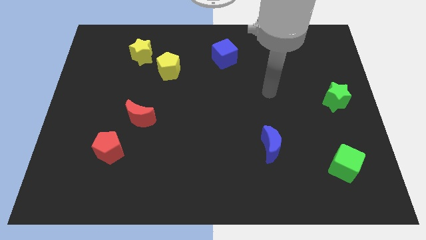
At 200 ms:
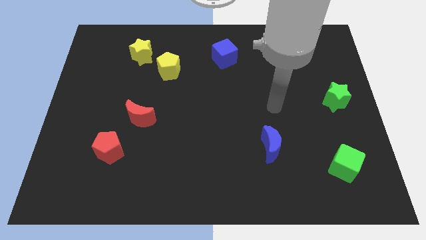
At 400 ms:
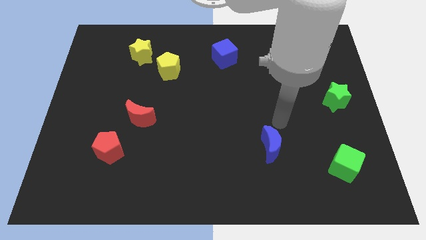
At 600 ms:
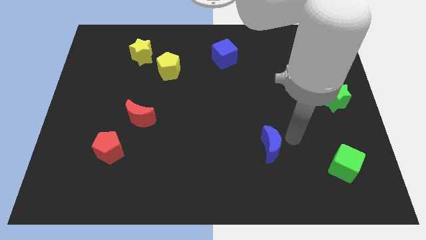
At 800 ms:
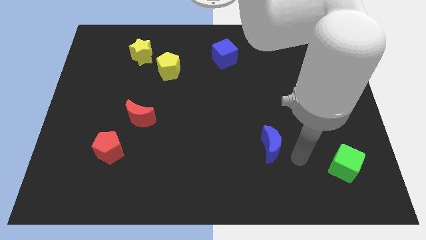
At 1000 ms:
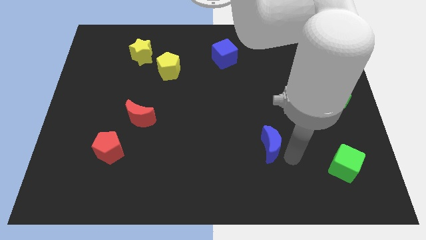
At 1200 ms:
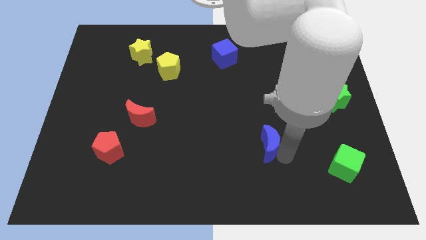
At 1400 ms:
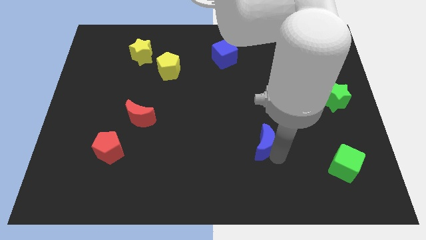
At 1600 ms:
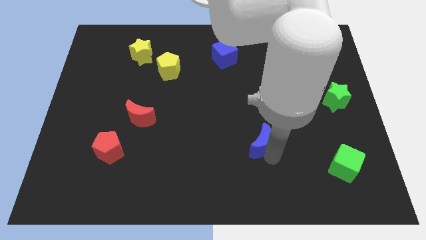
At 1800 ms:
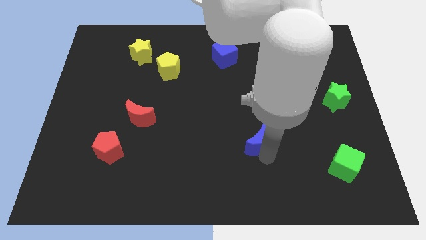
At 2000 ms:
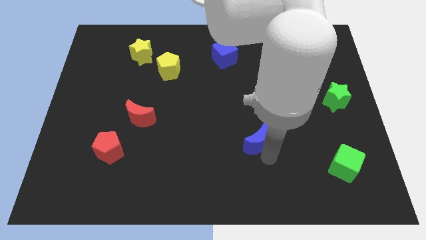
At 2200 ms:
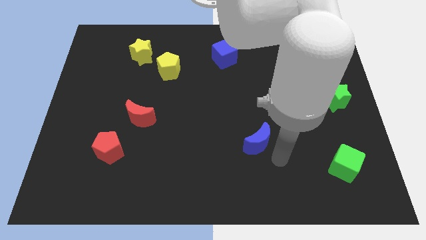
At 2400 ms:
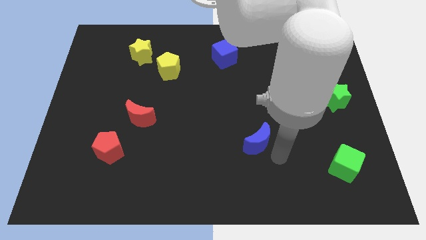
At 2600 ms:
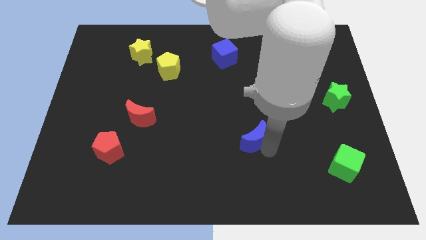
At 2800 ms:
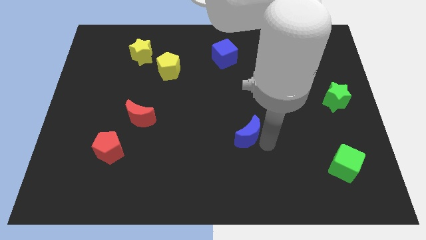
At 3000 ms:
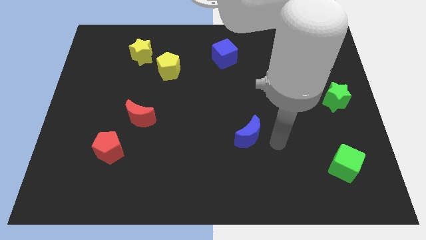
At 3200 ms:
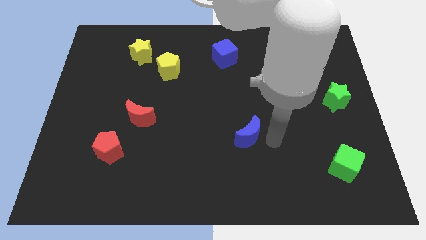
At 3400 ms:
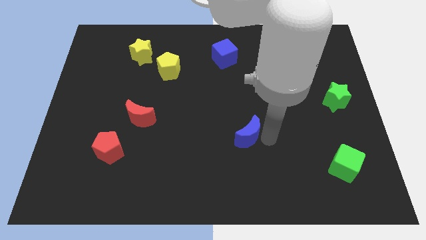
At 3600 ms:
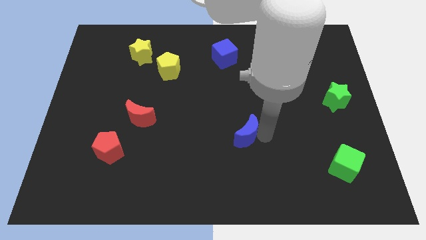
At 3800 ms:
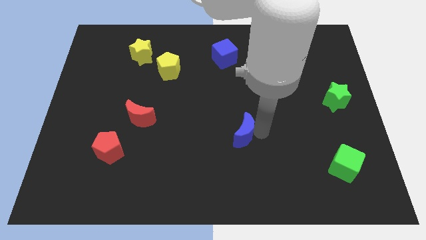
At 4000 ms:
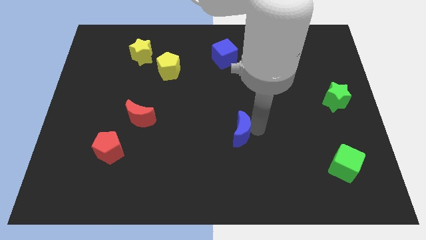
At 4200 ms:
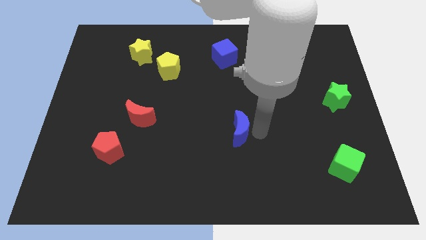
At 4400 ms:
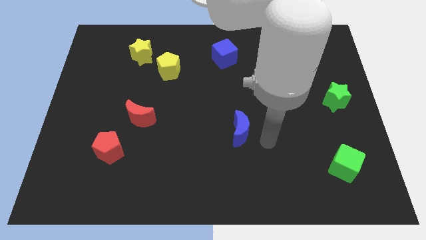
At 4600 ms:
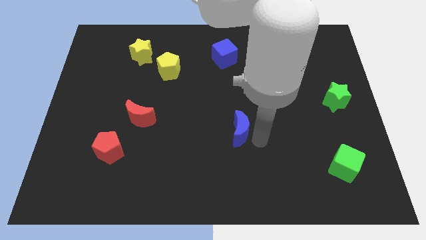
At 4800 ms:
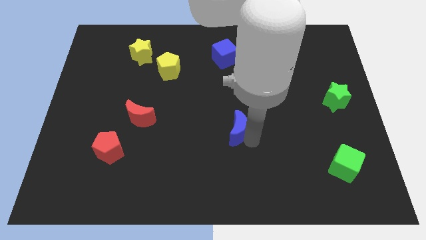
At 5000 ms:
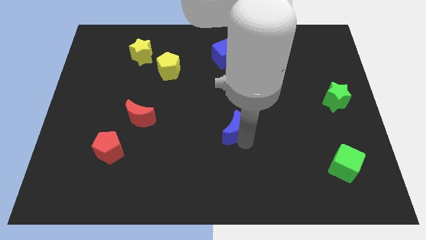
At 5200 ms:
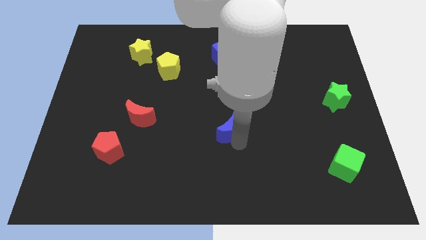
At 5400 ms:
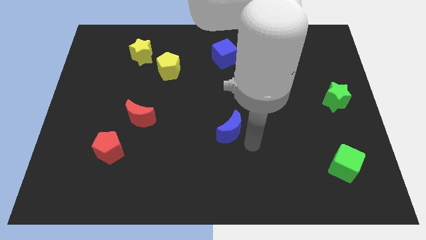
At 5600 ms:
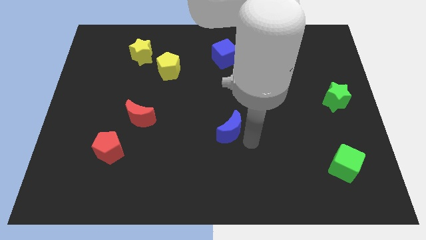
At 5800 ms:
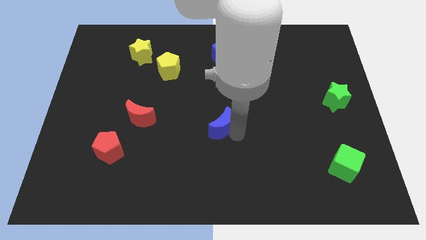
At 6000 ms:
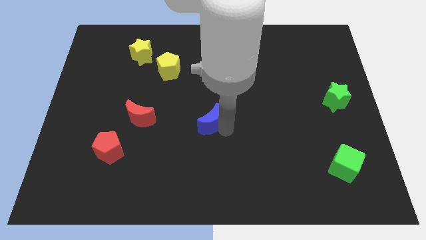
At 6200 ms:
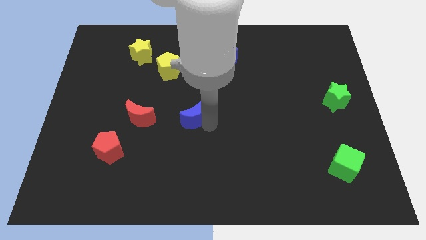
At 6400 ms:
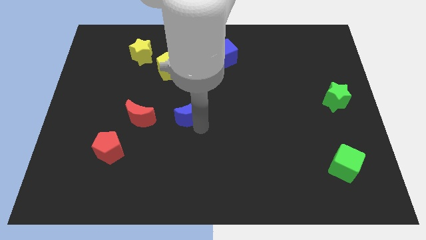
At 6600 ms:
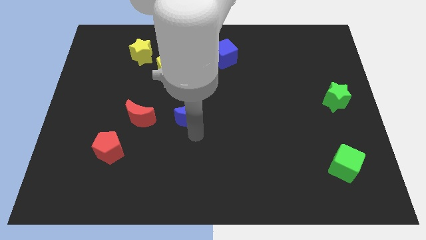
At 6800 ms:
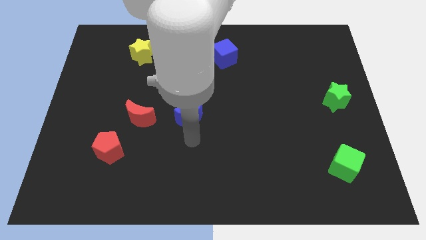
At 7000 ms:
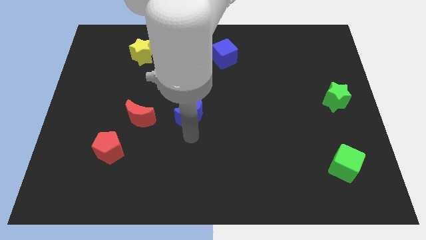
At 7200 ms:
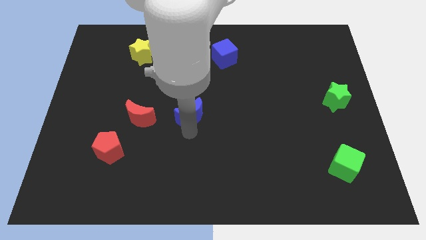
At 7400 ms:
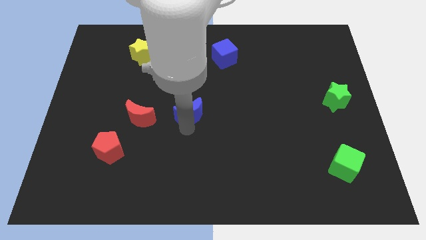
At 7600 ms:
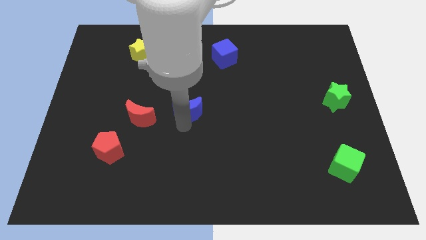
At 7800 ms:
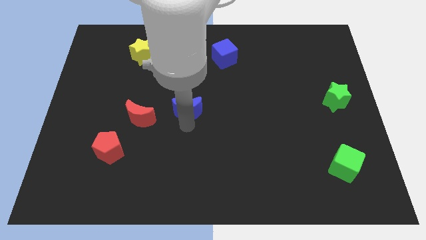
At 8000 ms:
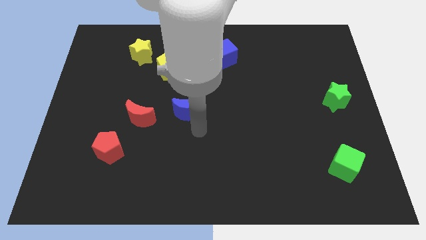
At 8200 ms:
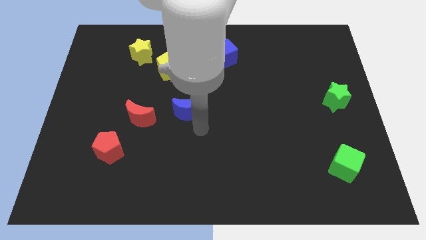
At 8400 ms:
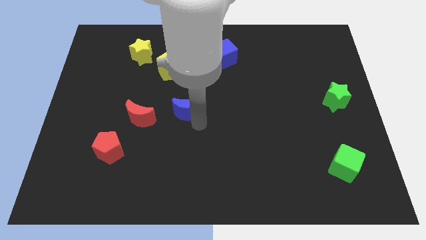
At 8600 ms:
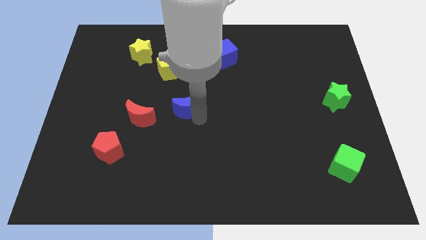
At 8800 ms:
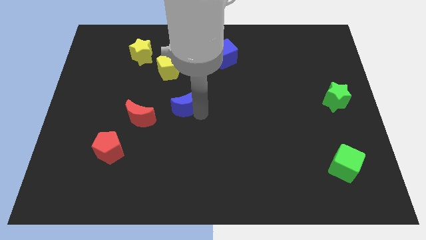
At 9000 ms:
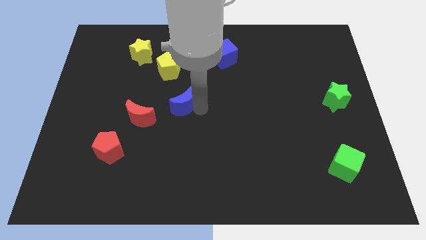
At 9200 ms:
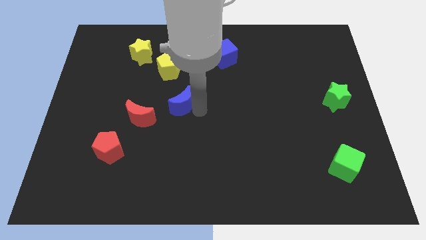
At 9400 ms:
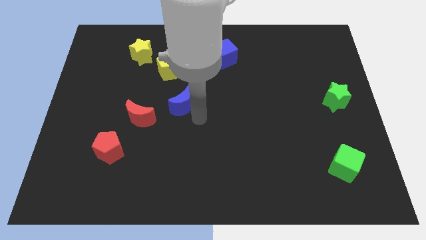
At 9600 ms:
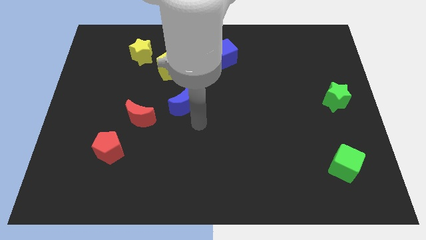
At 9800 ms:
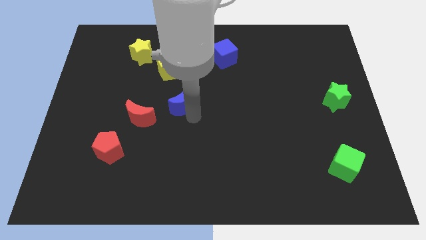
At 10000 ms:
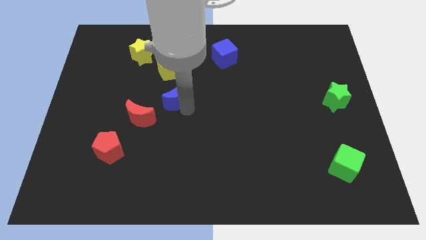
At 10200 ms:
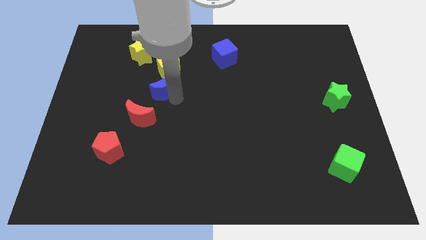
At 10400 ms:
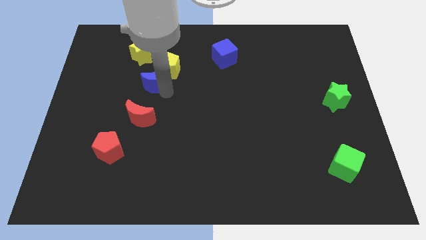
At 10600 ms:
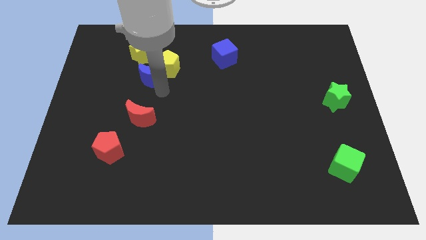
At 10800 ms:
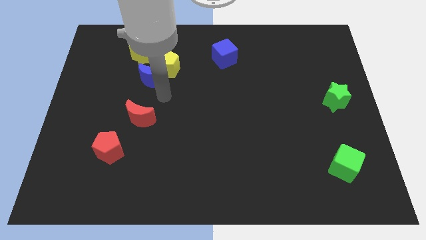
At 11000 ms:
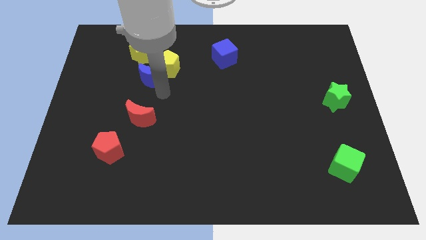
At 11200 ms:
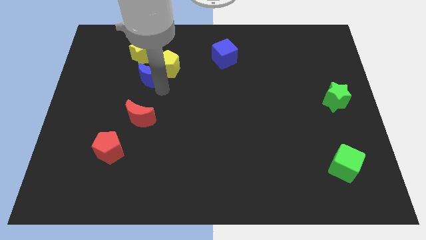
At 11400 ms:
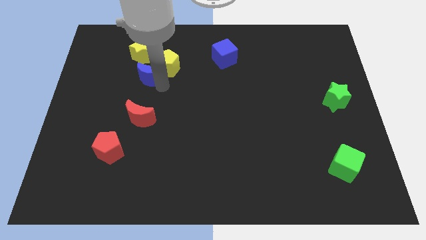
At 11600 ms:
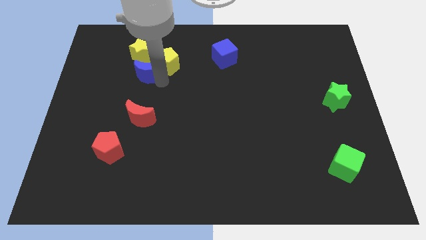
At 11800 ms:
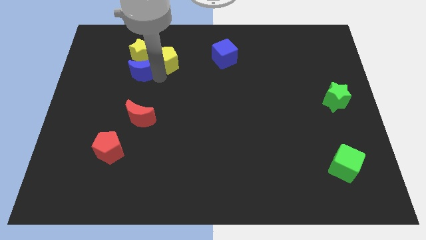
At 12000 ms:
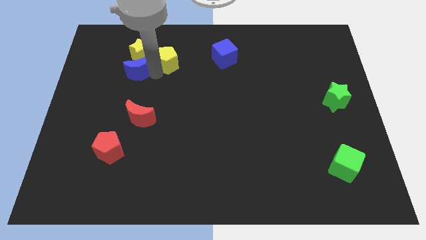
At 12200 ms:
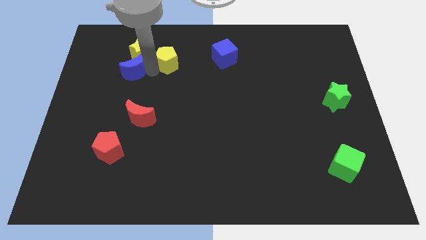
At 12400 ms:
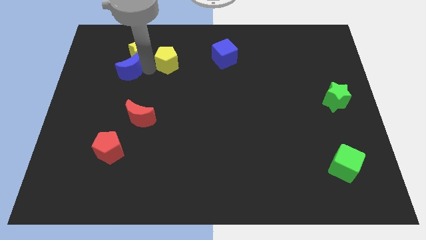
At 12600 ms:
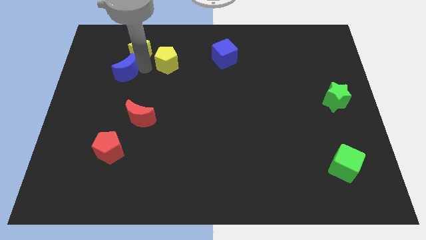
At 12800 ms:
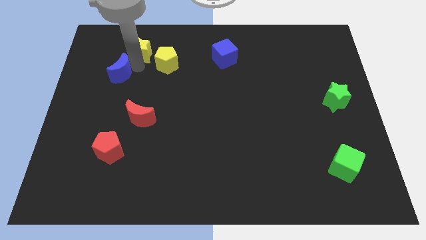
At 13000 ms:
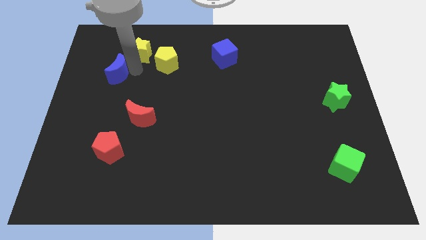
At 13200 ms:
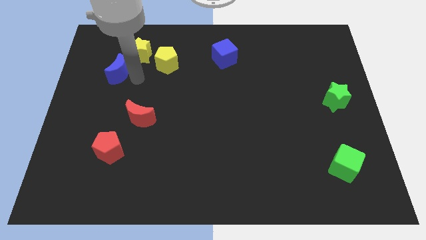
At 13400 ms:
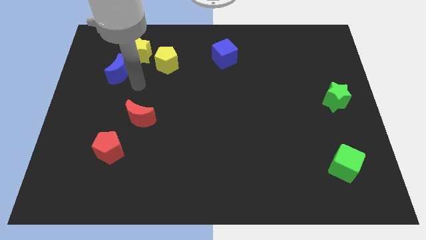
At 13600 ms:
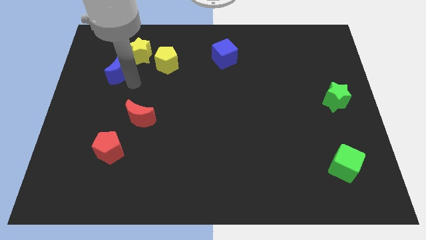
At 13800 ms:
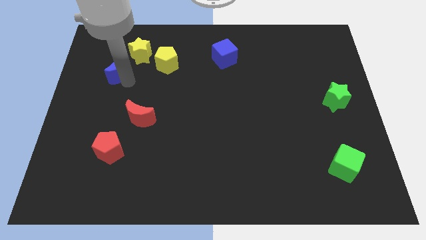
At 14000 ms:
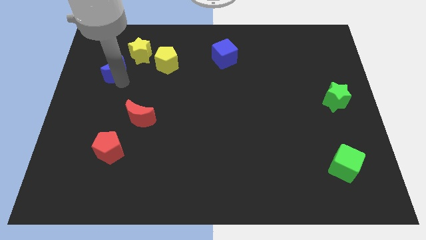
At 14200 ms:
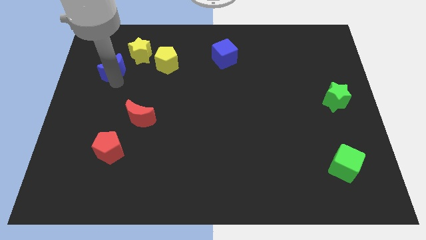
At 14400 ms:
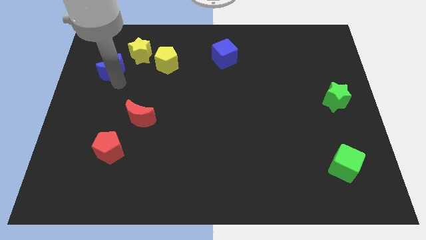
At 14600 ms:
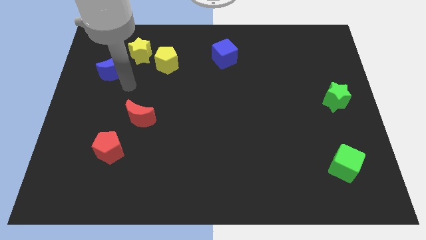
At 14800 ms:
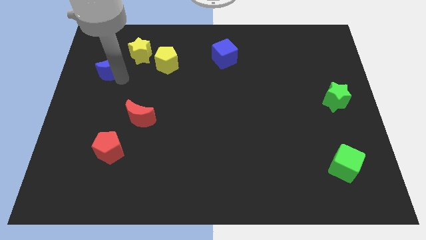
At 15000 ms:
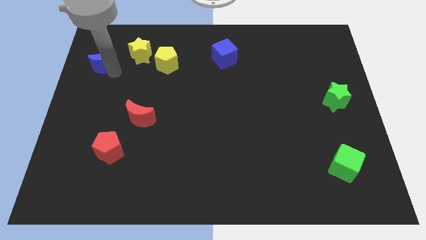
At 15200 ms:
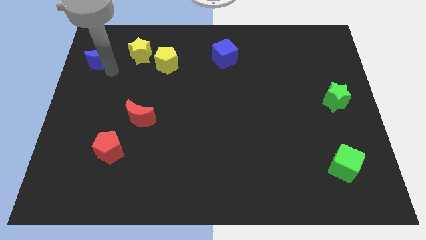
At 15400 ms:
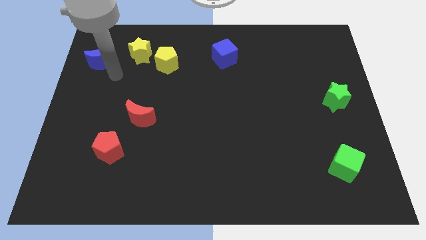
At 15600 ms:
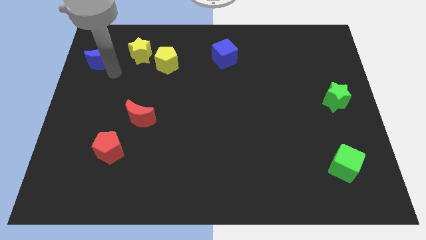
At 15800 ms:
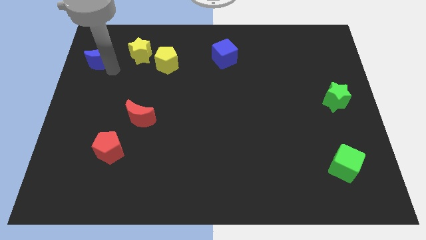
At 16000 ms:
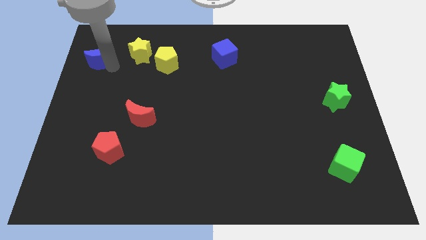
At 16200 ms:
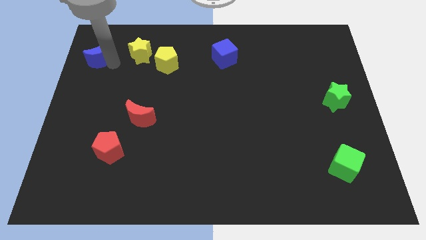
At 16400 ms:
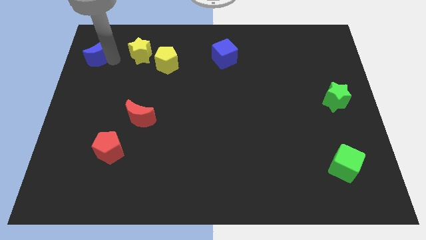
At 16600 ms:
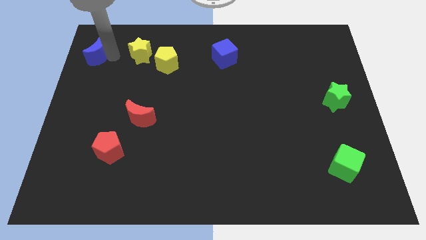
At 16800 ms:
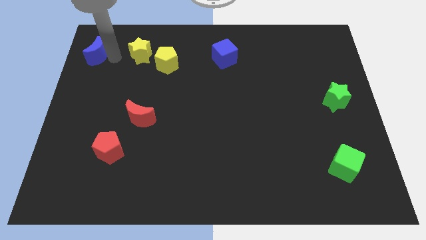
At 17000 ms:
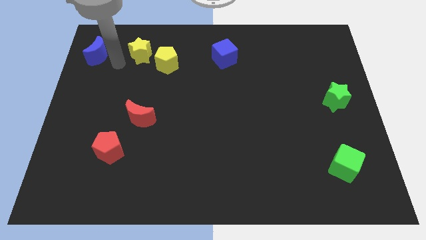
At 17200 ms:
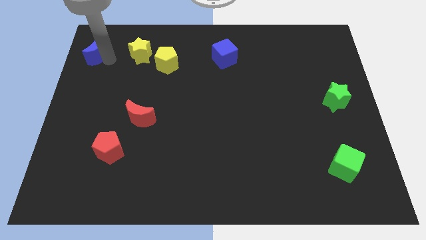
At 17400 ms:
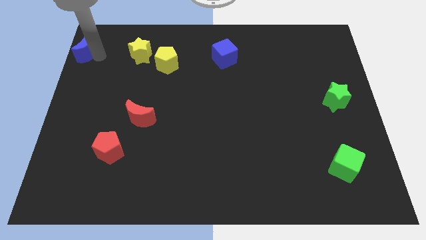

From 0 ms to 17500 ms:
slide the blue moon to the upper left corner
